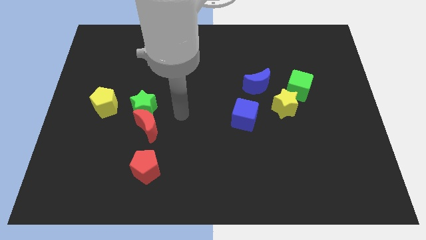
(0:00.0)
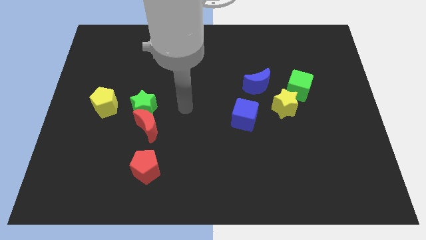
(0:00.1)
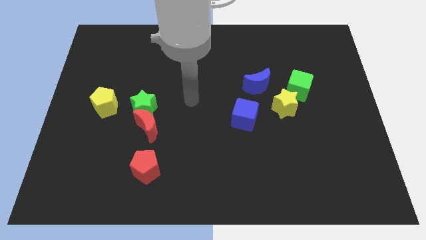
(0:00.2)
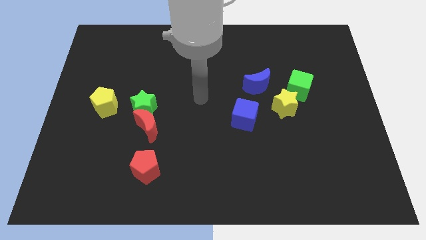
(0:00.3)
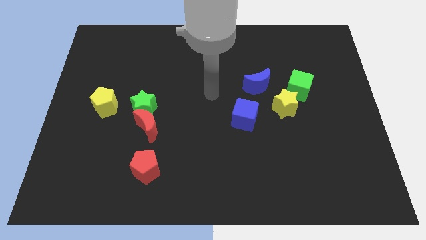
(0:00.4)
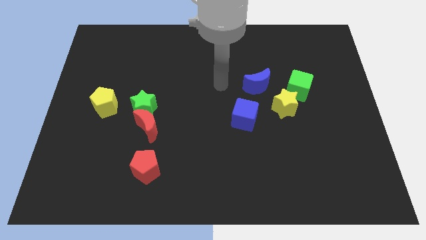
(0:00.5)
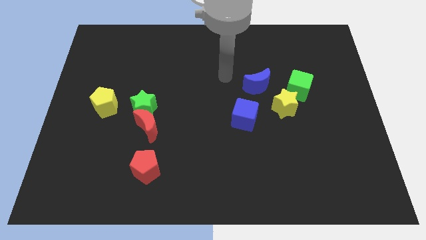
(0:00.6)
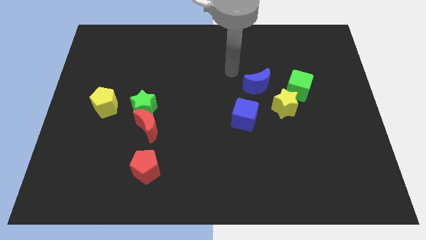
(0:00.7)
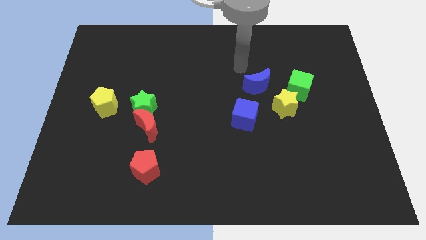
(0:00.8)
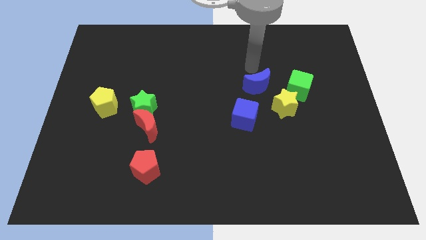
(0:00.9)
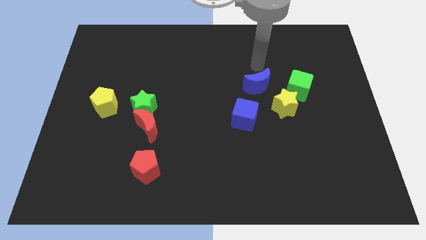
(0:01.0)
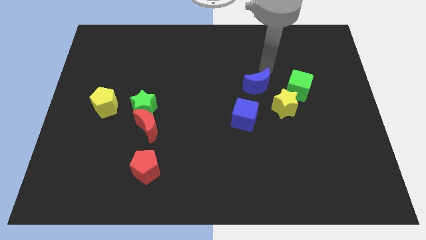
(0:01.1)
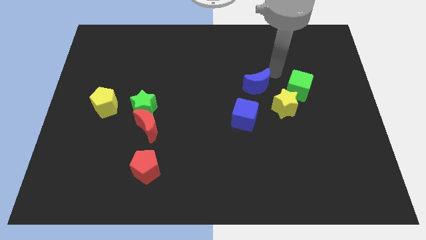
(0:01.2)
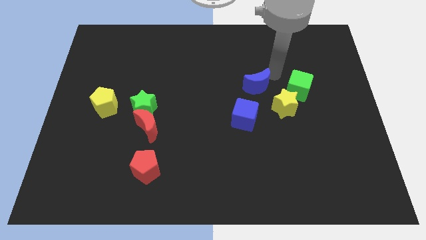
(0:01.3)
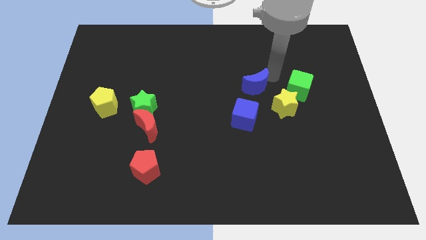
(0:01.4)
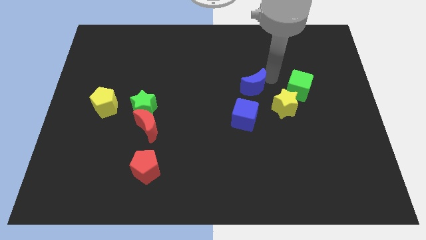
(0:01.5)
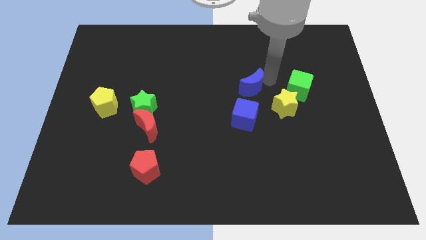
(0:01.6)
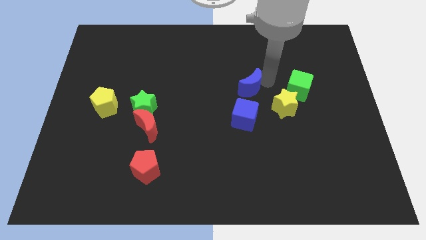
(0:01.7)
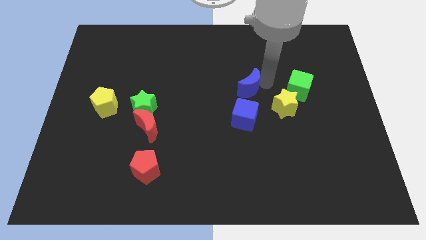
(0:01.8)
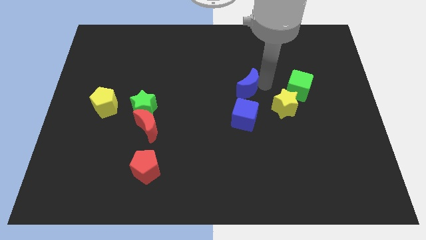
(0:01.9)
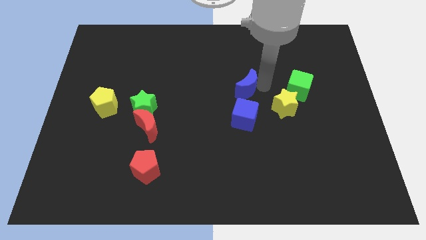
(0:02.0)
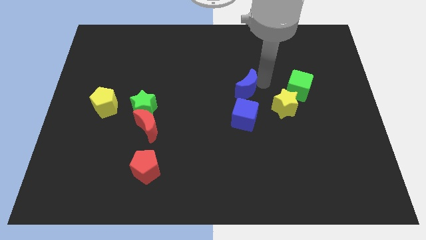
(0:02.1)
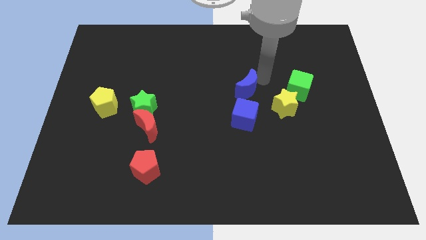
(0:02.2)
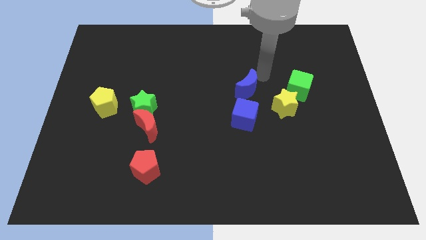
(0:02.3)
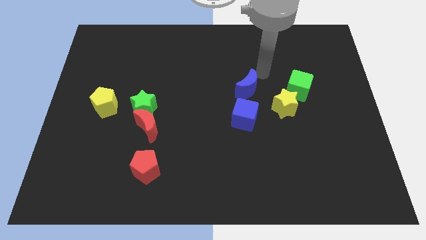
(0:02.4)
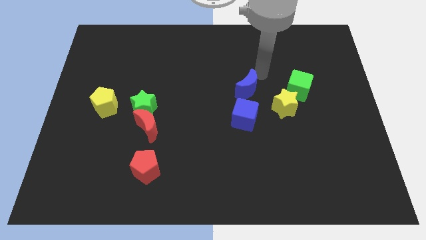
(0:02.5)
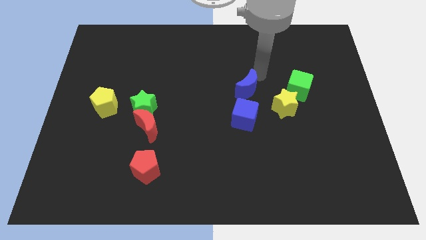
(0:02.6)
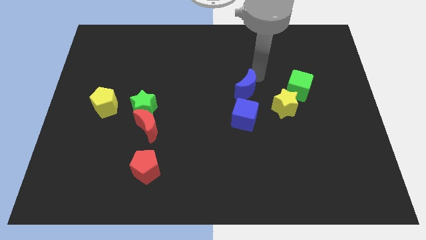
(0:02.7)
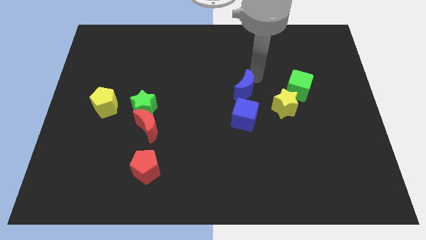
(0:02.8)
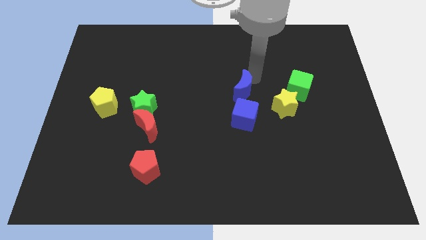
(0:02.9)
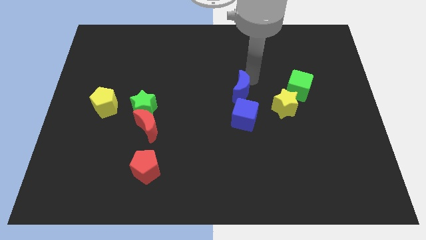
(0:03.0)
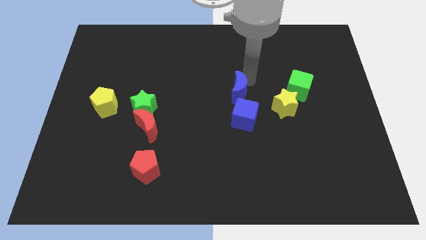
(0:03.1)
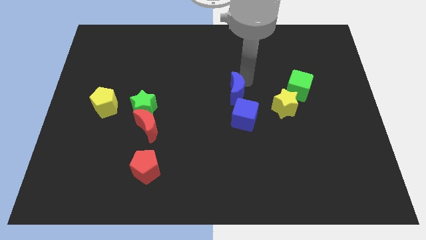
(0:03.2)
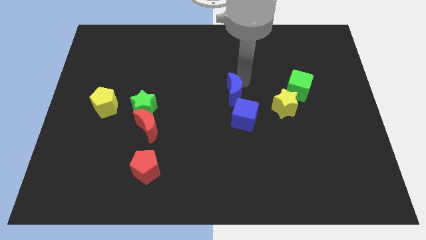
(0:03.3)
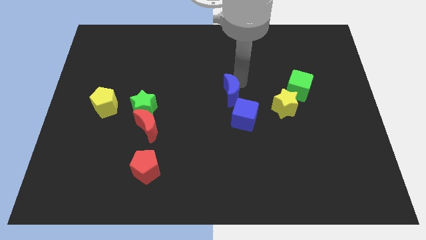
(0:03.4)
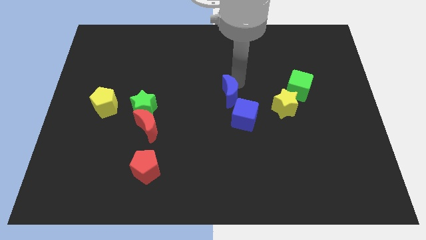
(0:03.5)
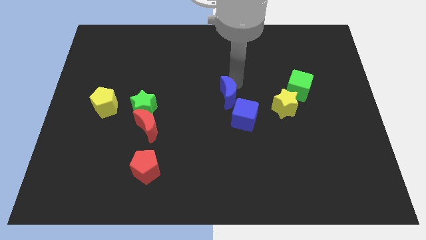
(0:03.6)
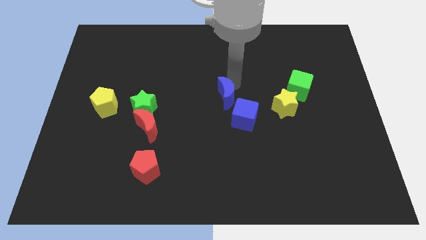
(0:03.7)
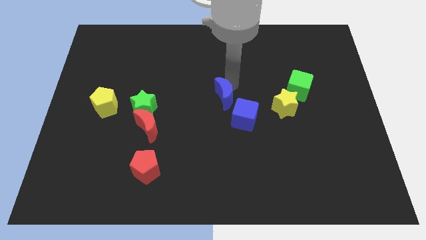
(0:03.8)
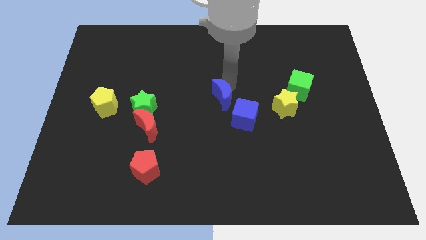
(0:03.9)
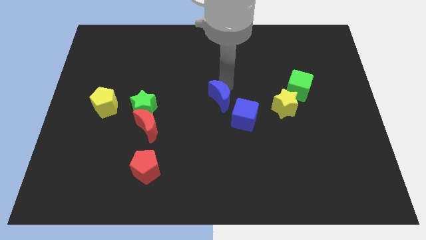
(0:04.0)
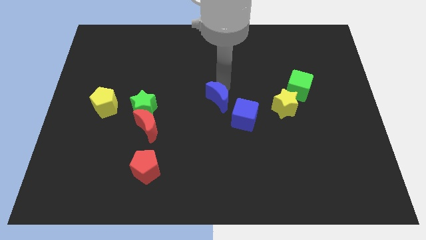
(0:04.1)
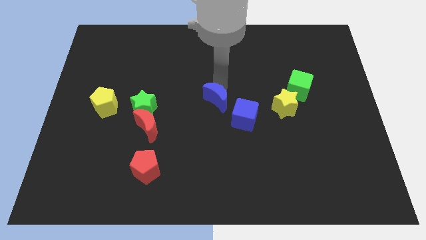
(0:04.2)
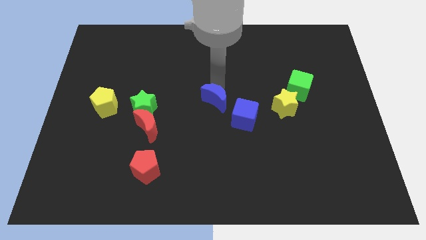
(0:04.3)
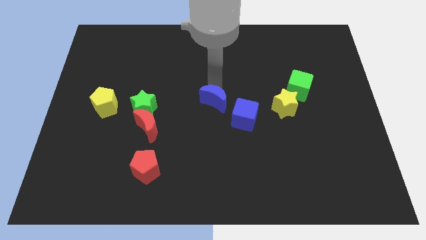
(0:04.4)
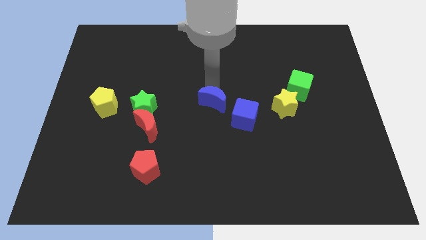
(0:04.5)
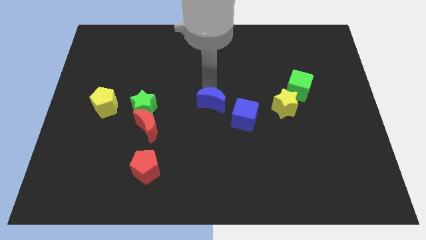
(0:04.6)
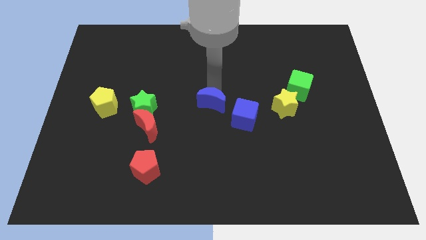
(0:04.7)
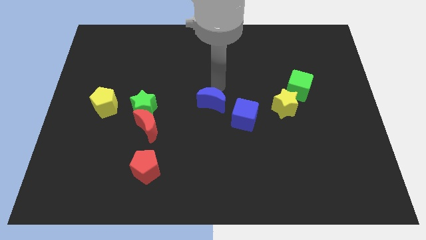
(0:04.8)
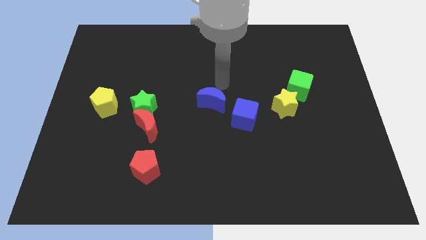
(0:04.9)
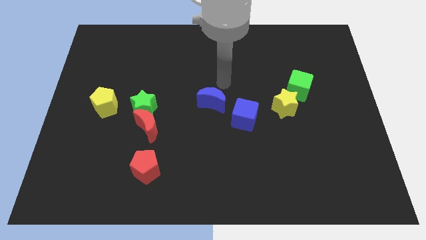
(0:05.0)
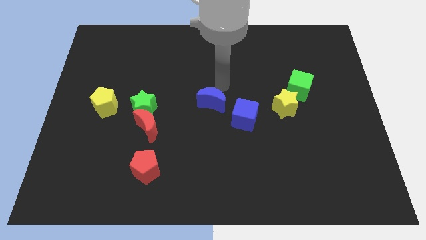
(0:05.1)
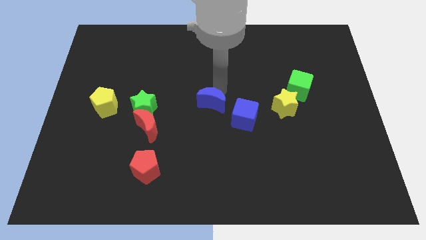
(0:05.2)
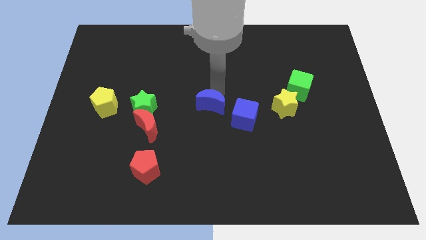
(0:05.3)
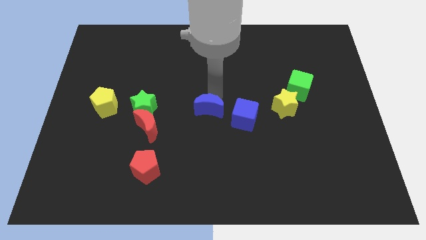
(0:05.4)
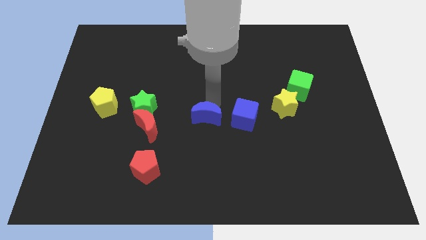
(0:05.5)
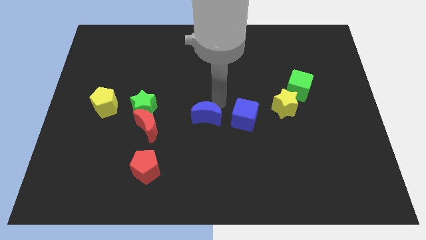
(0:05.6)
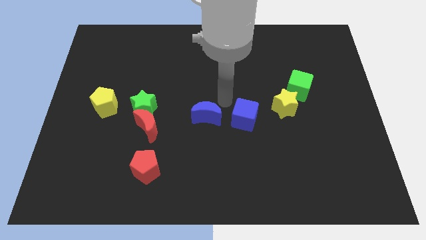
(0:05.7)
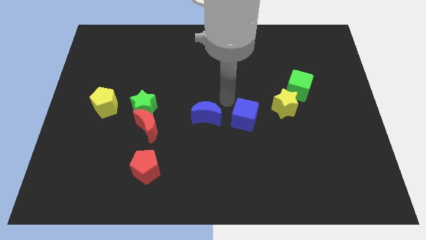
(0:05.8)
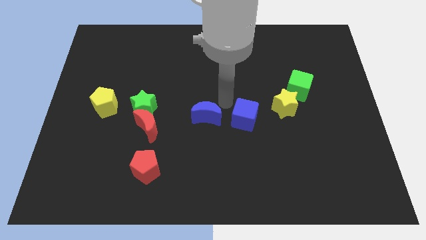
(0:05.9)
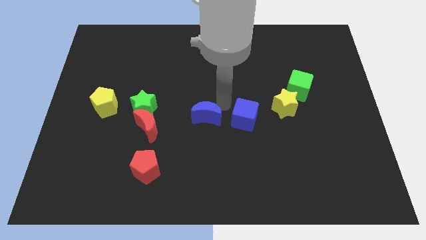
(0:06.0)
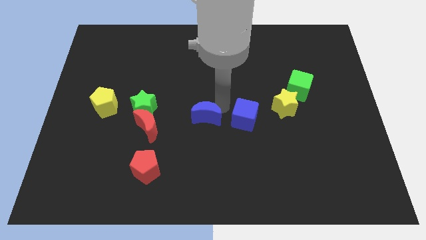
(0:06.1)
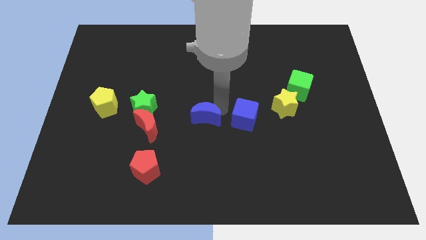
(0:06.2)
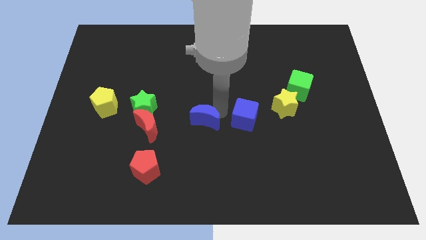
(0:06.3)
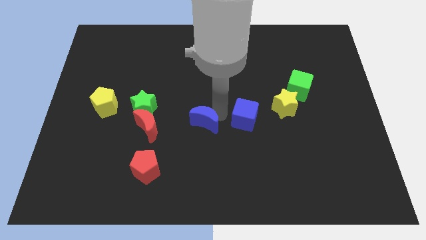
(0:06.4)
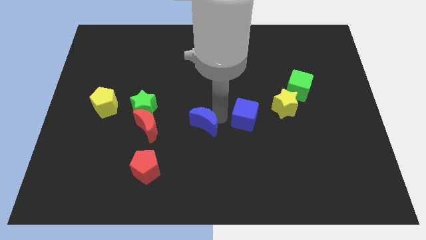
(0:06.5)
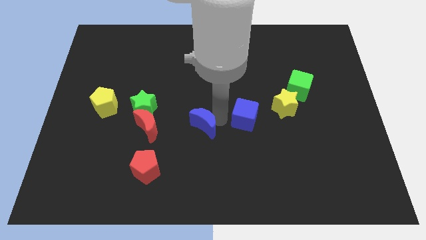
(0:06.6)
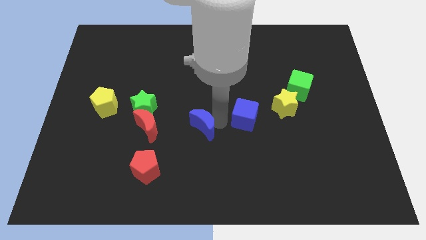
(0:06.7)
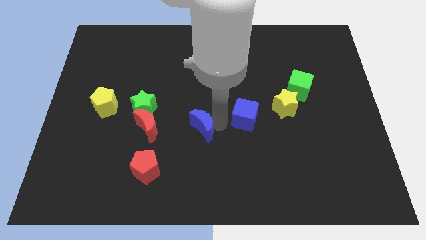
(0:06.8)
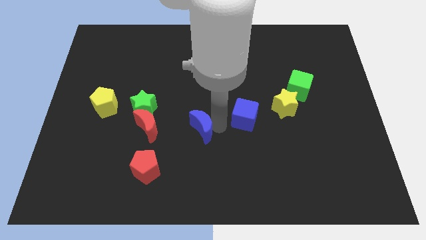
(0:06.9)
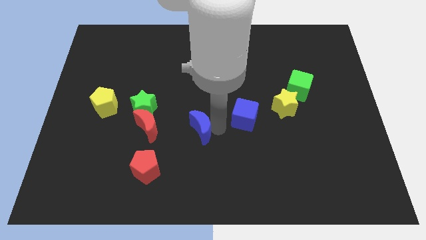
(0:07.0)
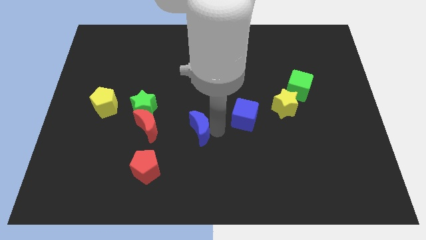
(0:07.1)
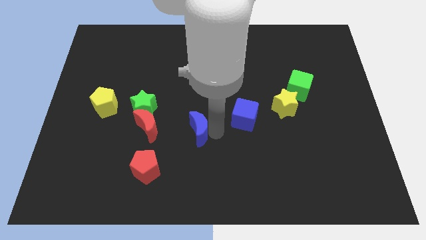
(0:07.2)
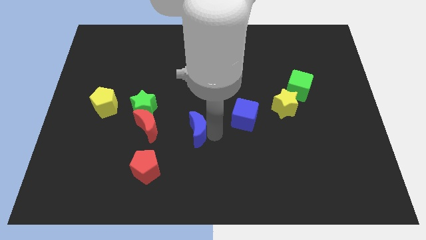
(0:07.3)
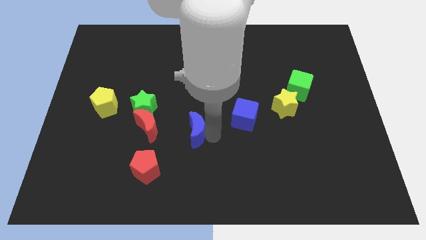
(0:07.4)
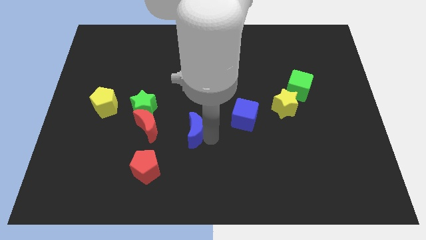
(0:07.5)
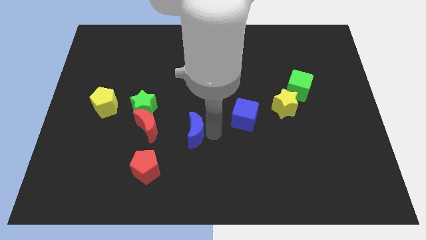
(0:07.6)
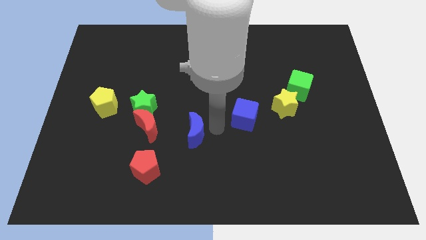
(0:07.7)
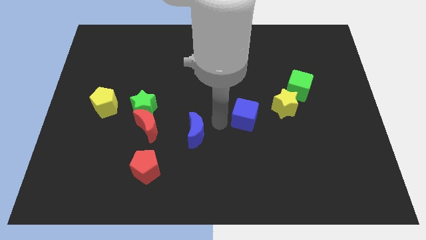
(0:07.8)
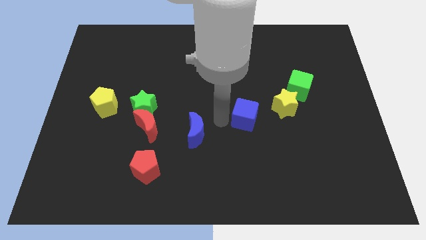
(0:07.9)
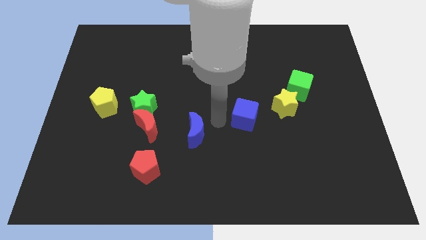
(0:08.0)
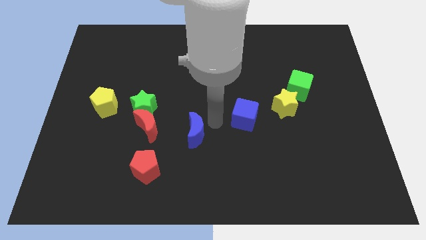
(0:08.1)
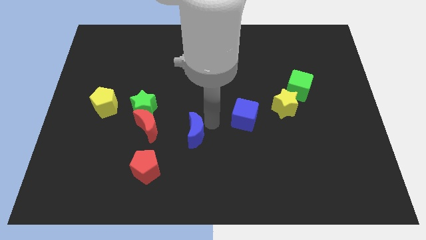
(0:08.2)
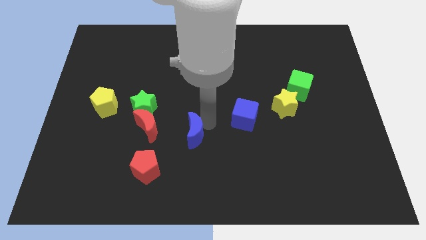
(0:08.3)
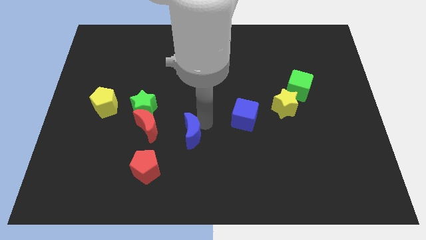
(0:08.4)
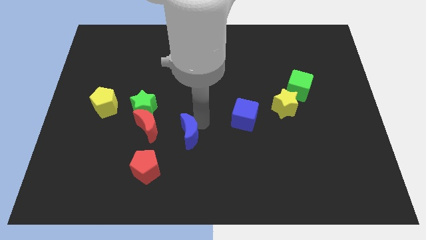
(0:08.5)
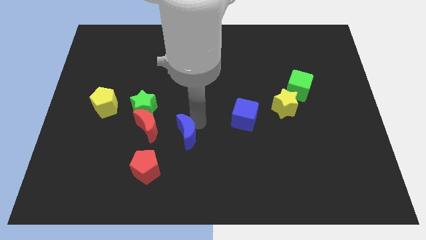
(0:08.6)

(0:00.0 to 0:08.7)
push the blue moon to the bottom right of the red moon
